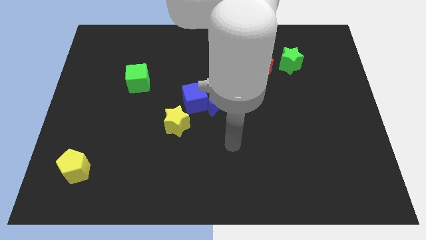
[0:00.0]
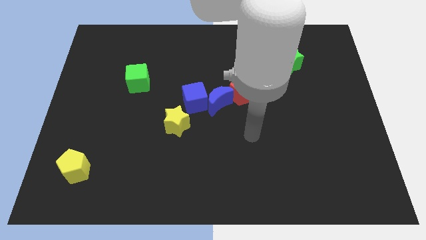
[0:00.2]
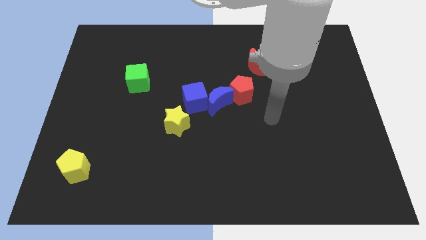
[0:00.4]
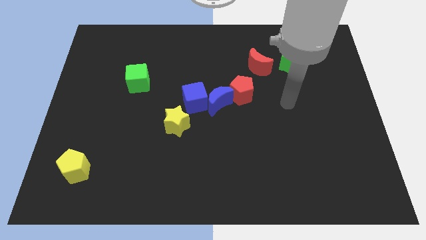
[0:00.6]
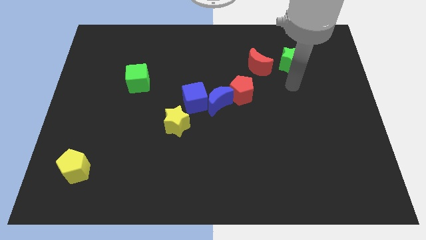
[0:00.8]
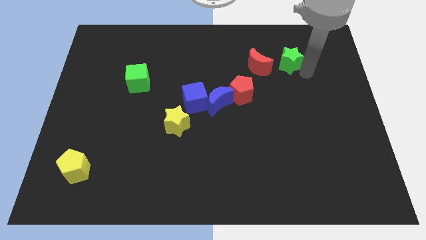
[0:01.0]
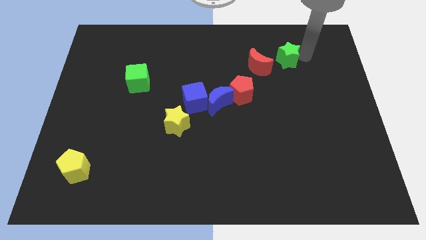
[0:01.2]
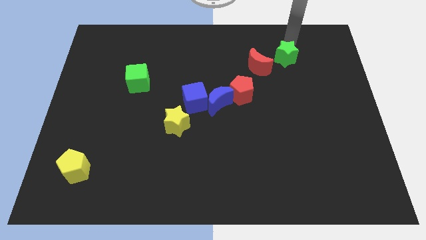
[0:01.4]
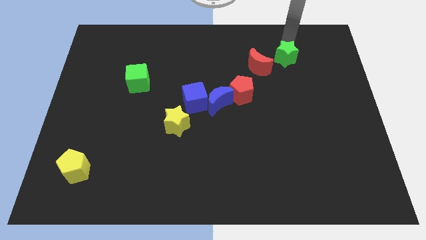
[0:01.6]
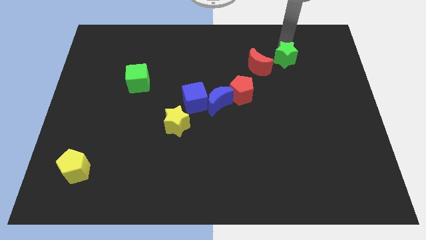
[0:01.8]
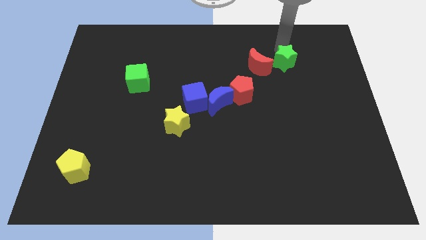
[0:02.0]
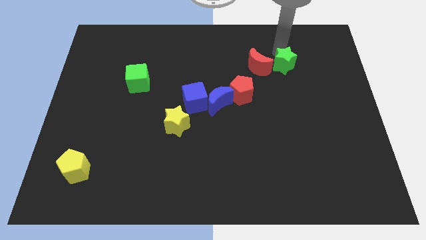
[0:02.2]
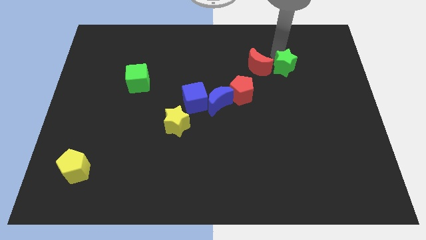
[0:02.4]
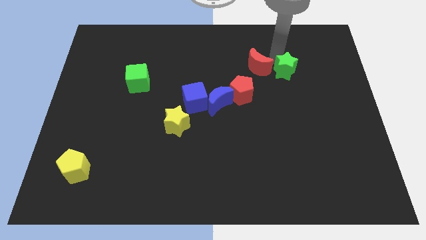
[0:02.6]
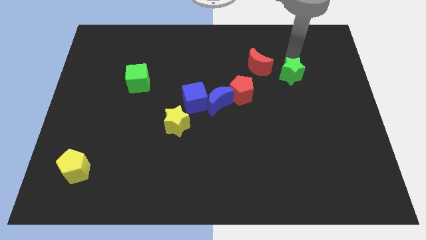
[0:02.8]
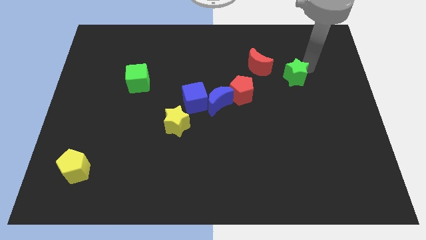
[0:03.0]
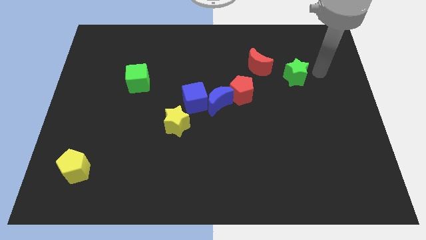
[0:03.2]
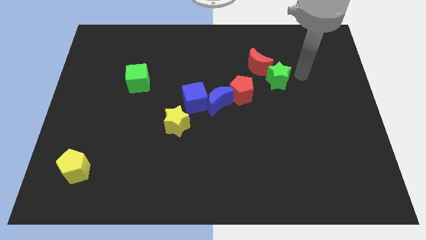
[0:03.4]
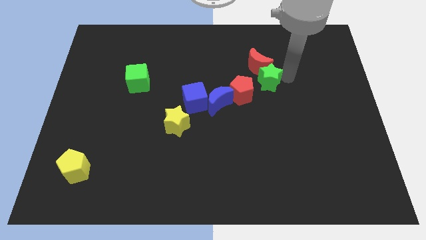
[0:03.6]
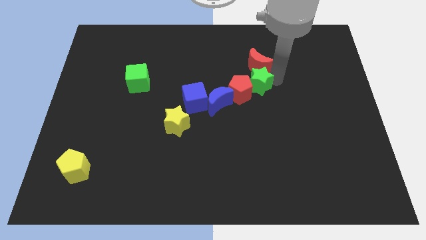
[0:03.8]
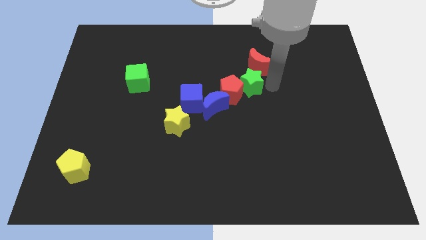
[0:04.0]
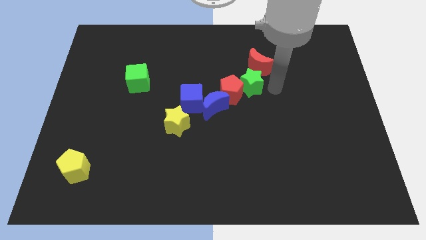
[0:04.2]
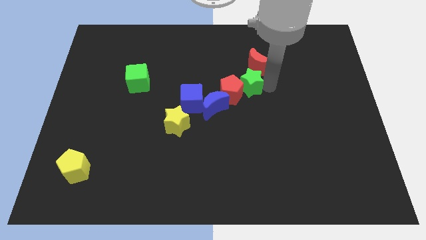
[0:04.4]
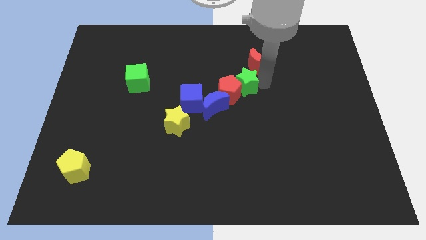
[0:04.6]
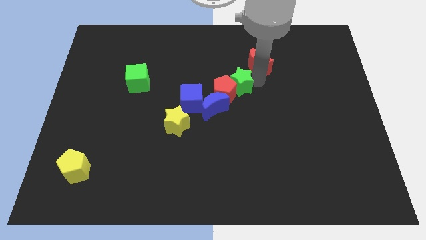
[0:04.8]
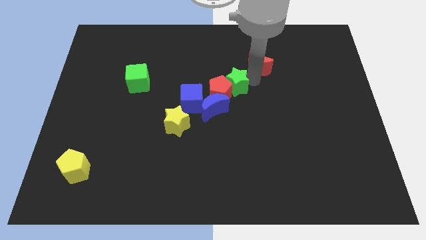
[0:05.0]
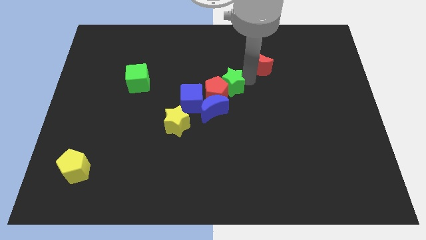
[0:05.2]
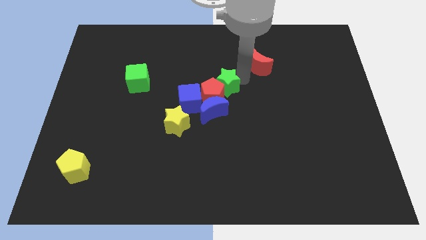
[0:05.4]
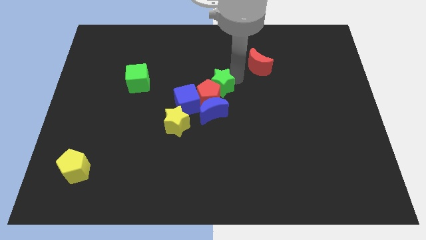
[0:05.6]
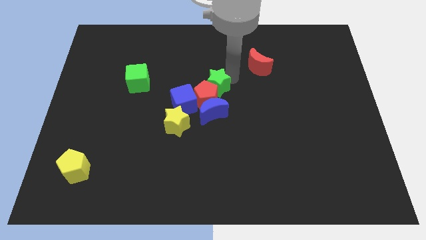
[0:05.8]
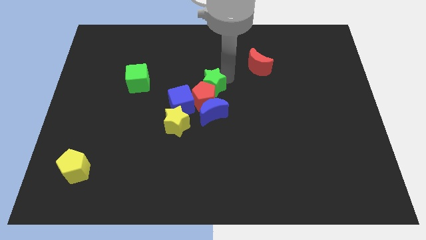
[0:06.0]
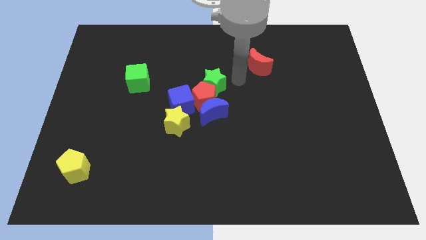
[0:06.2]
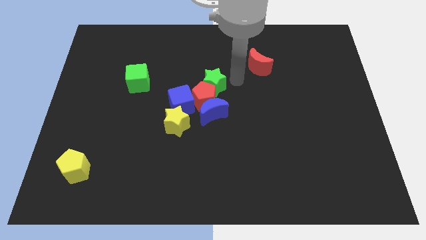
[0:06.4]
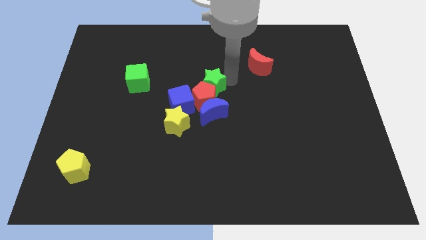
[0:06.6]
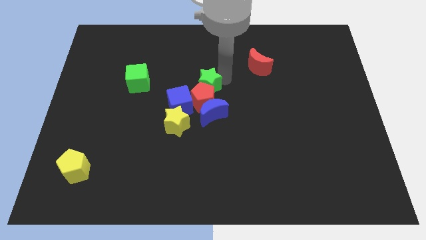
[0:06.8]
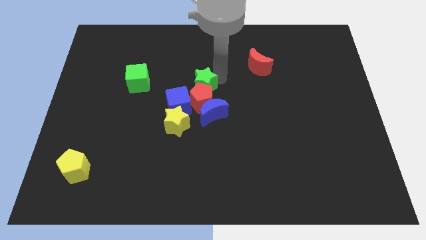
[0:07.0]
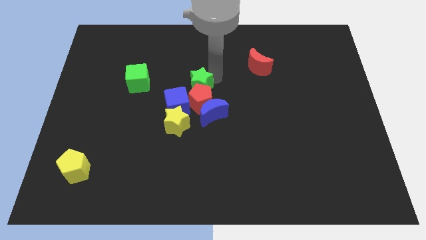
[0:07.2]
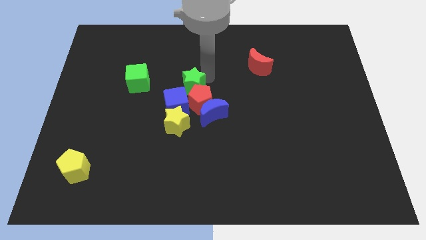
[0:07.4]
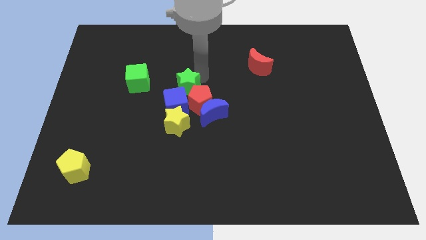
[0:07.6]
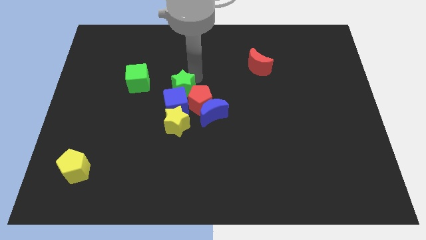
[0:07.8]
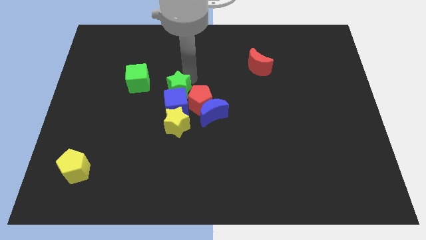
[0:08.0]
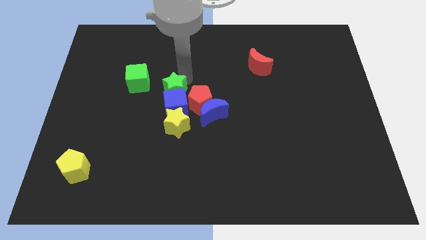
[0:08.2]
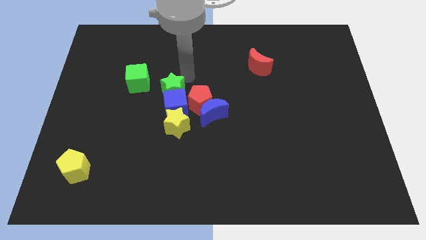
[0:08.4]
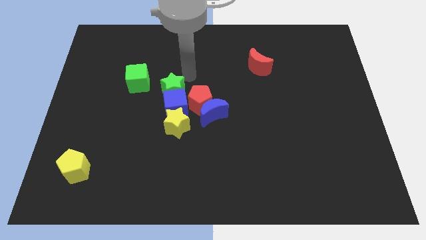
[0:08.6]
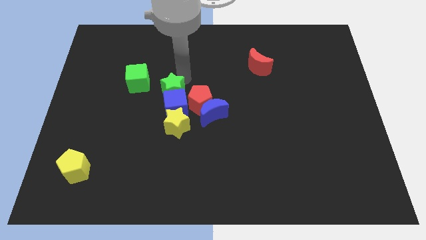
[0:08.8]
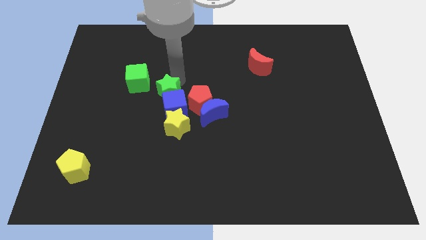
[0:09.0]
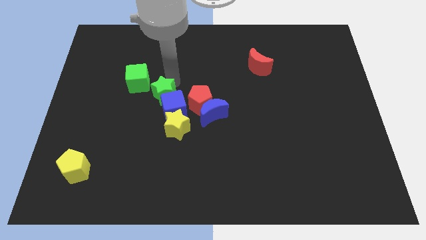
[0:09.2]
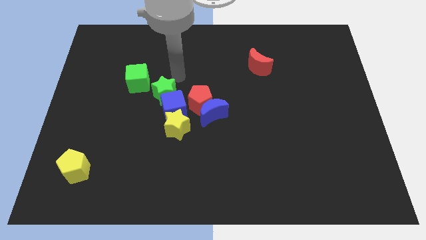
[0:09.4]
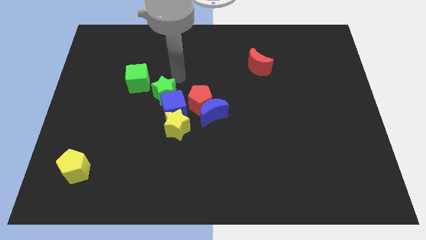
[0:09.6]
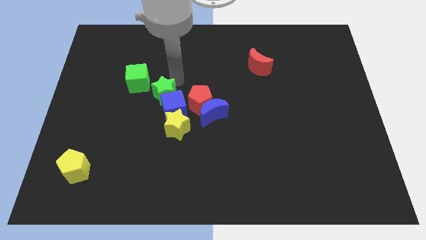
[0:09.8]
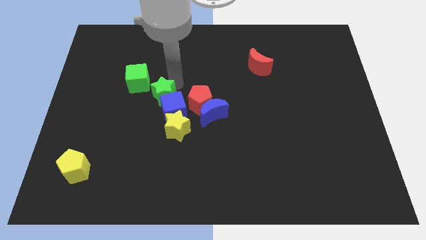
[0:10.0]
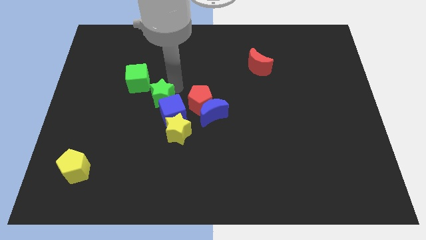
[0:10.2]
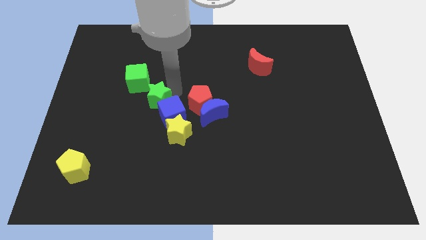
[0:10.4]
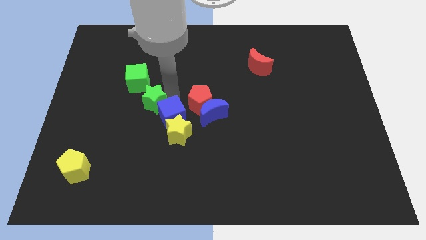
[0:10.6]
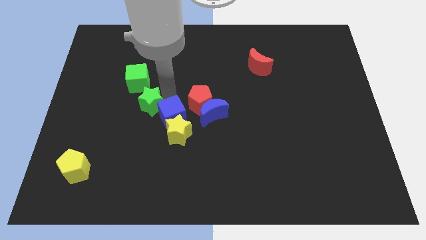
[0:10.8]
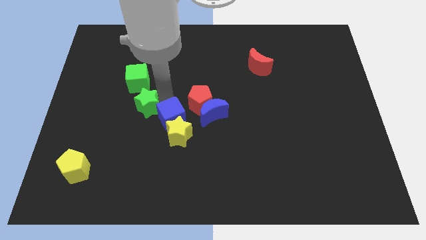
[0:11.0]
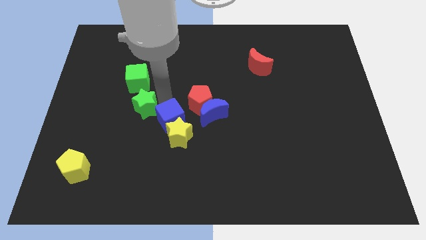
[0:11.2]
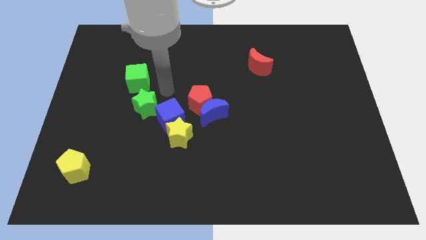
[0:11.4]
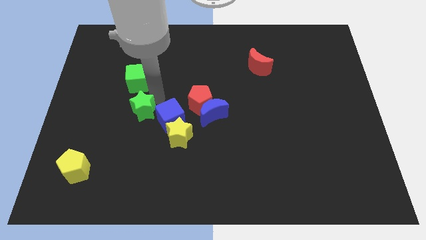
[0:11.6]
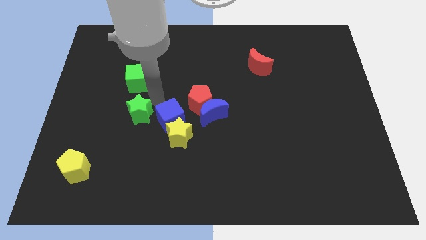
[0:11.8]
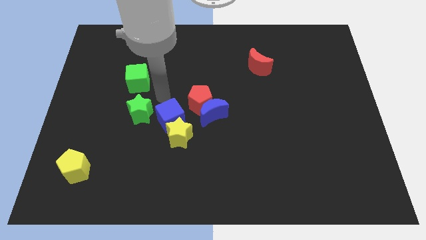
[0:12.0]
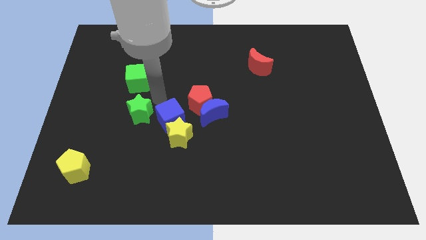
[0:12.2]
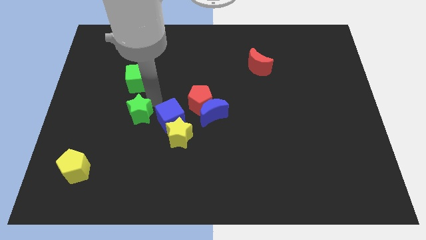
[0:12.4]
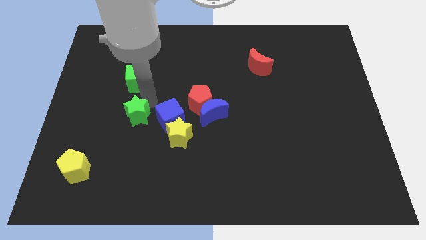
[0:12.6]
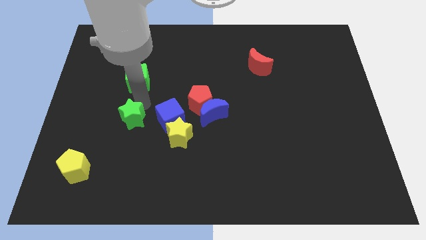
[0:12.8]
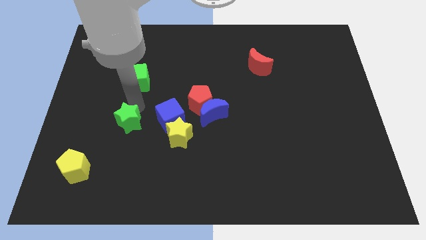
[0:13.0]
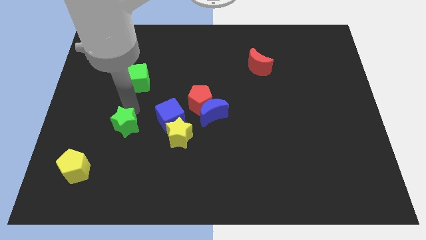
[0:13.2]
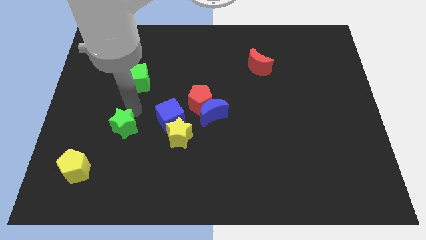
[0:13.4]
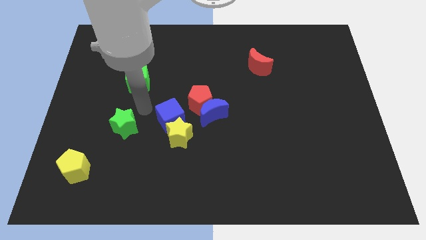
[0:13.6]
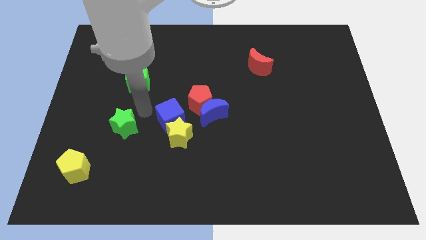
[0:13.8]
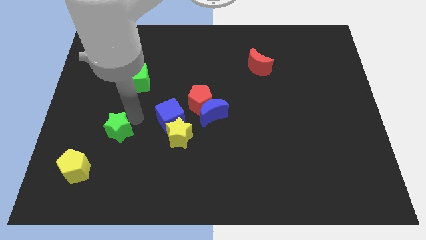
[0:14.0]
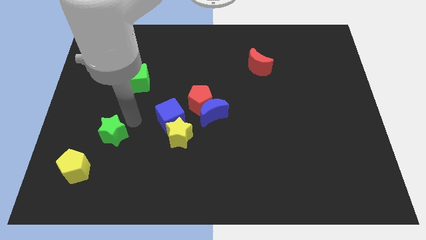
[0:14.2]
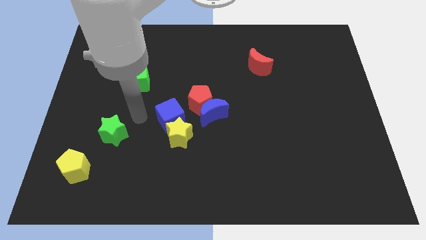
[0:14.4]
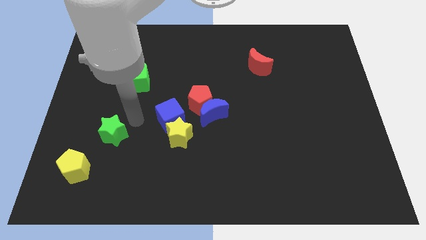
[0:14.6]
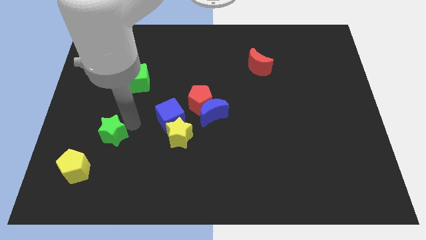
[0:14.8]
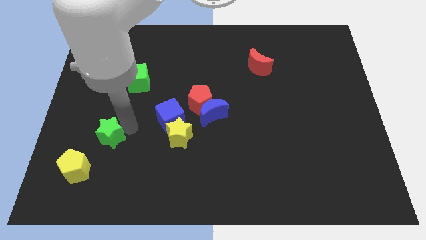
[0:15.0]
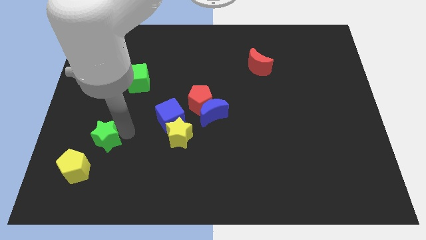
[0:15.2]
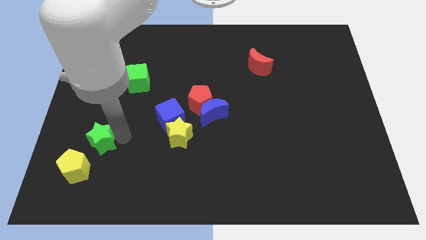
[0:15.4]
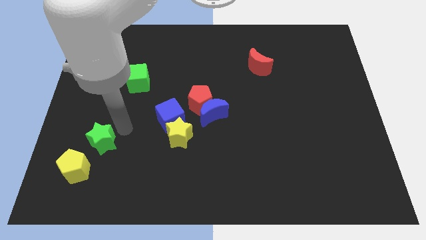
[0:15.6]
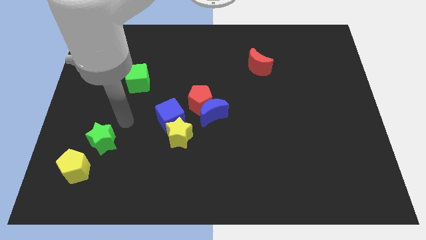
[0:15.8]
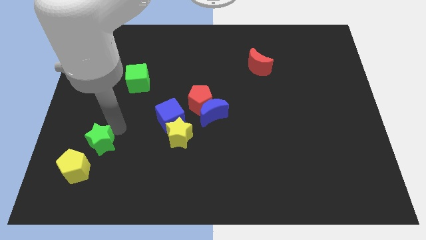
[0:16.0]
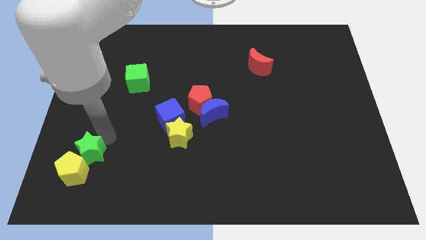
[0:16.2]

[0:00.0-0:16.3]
push the green star towards the yellow pentagon
